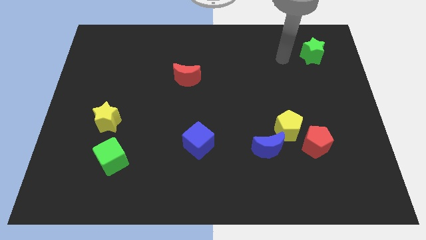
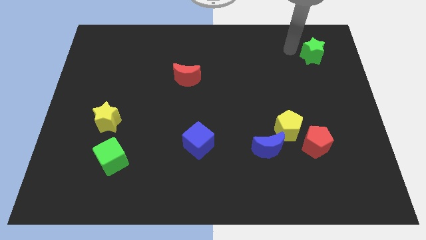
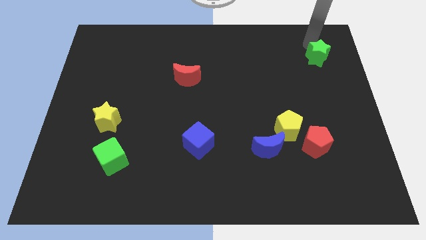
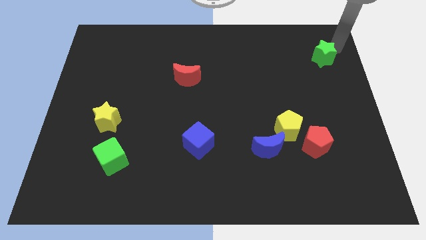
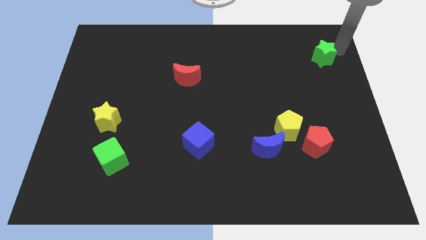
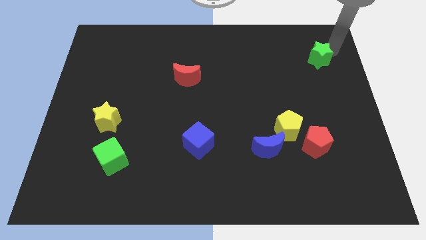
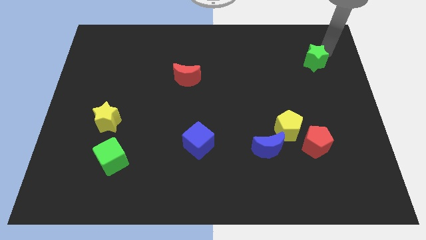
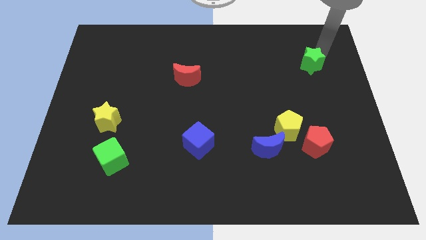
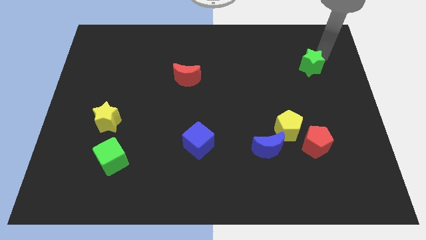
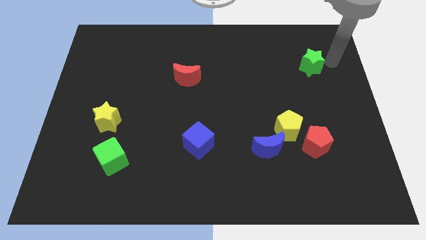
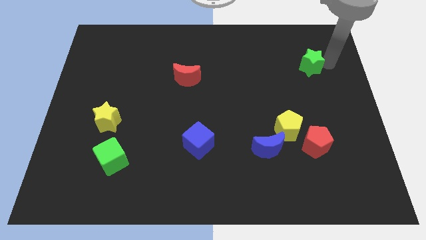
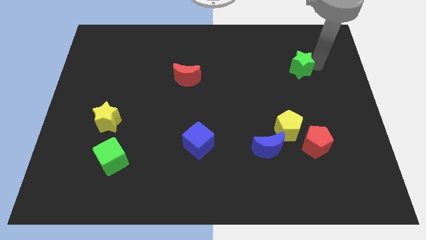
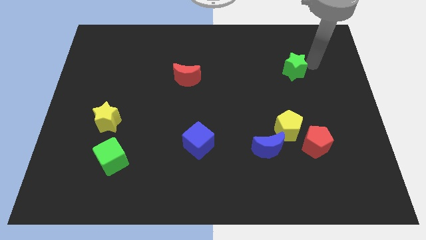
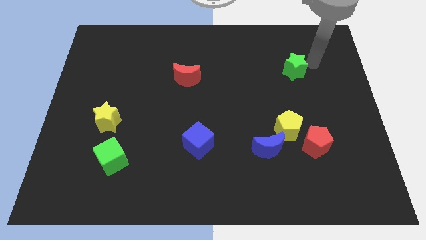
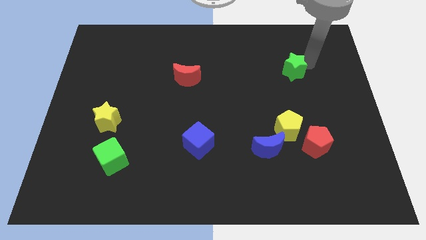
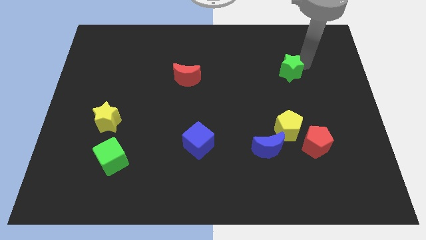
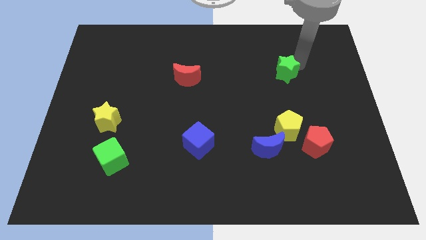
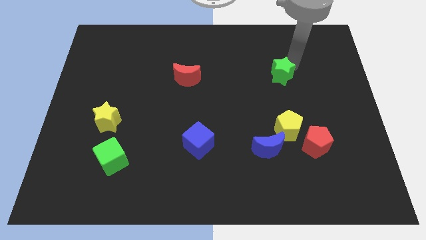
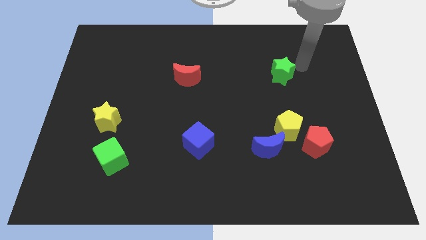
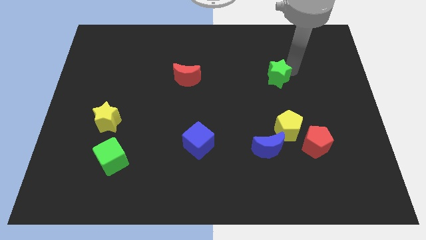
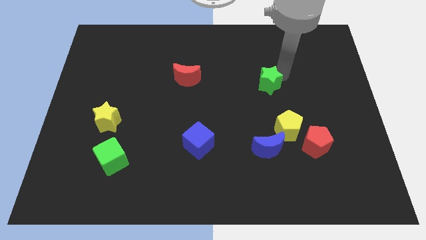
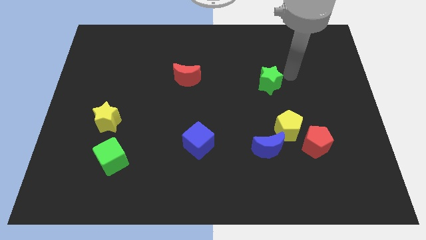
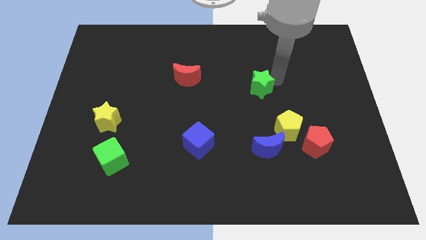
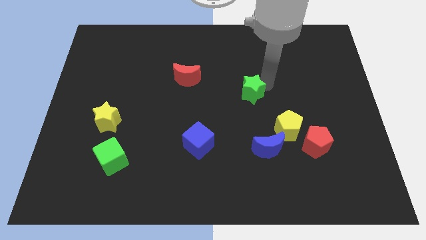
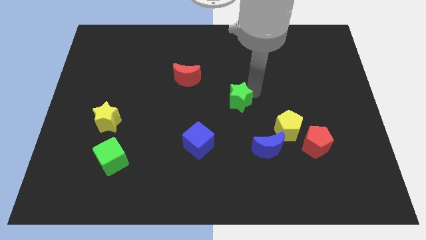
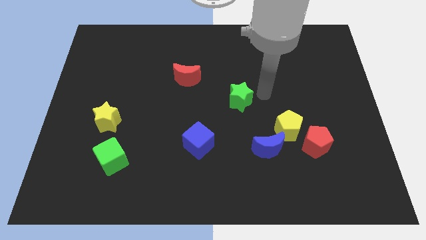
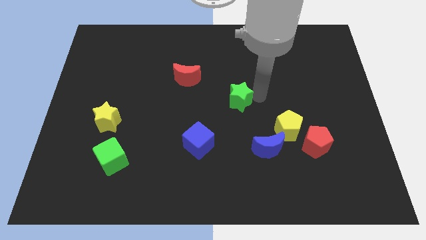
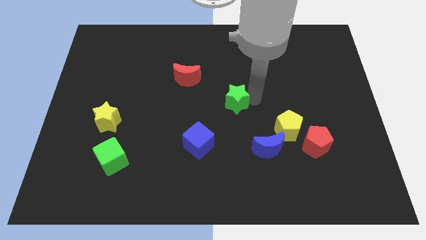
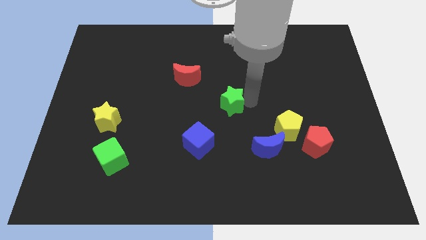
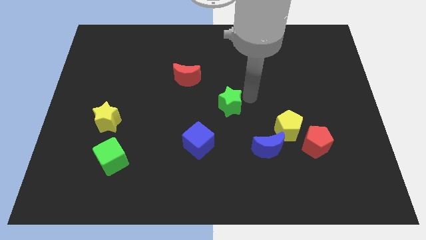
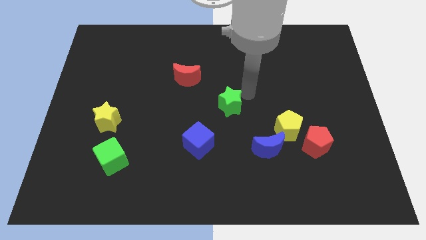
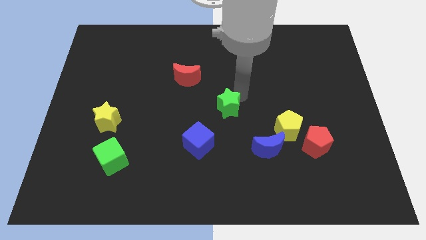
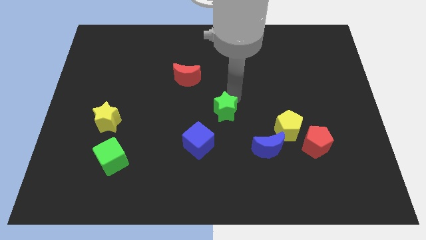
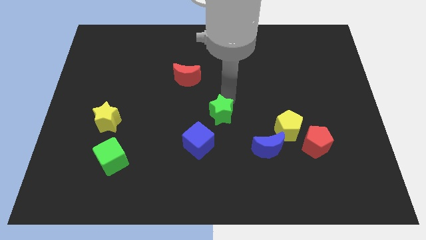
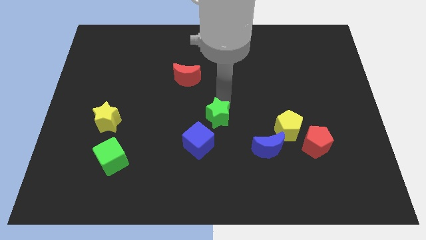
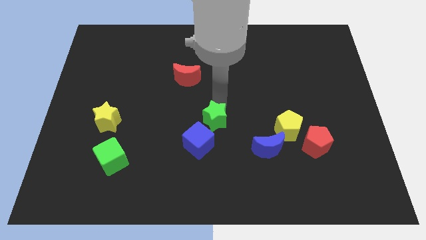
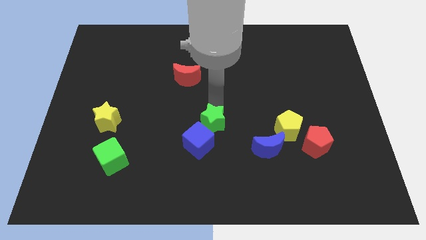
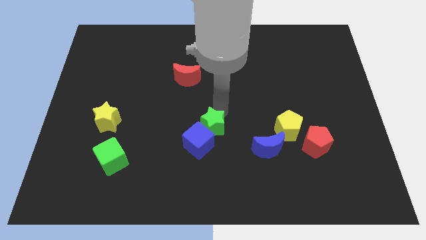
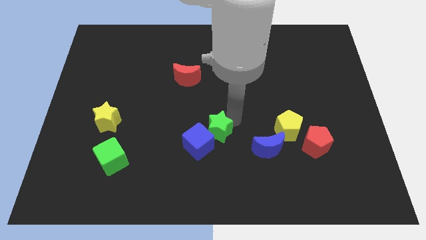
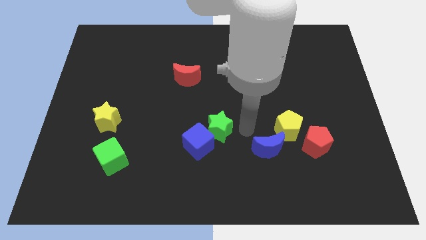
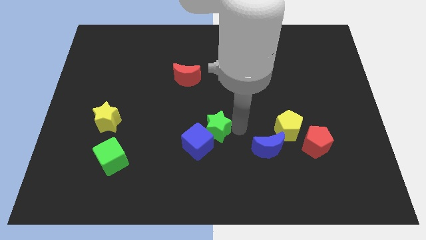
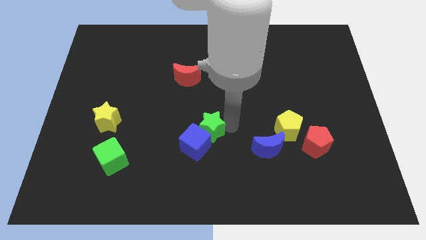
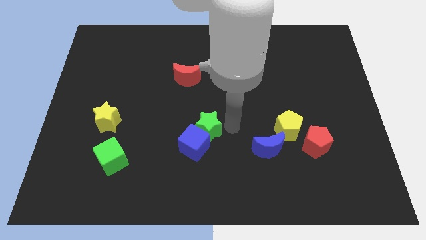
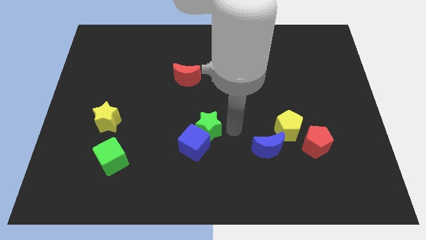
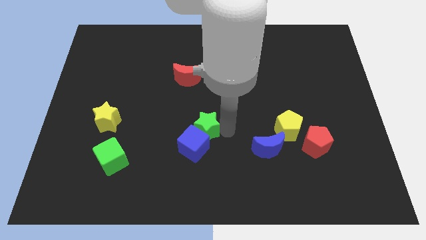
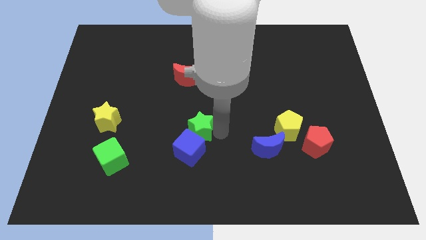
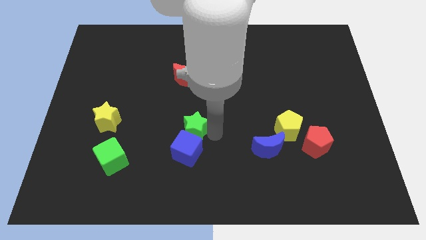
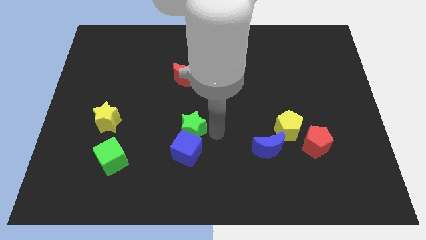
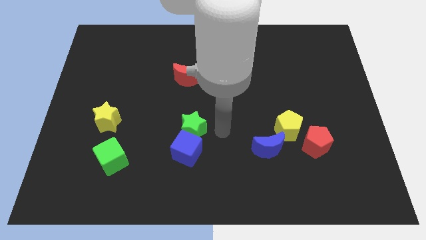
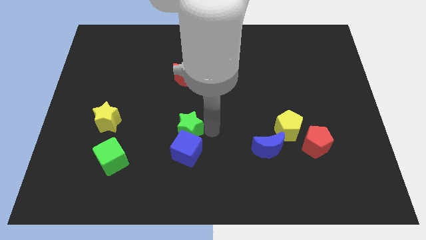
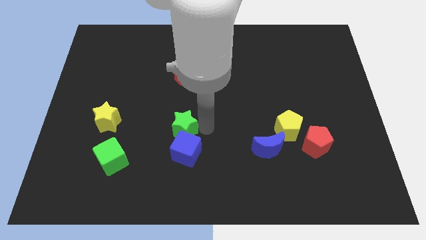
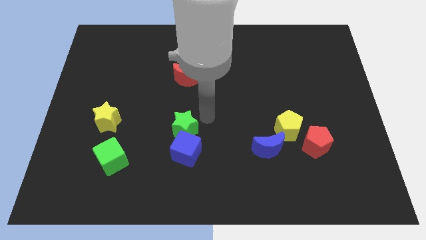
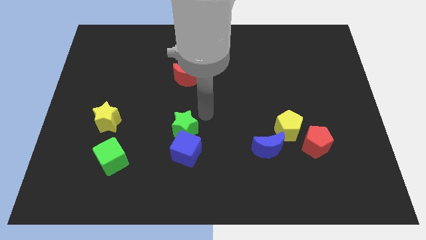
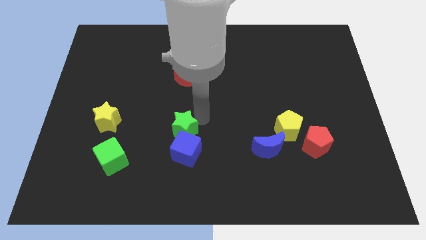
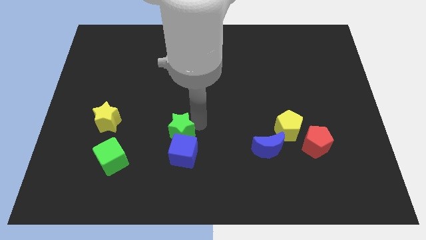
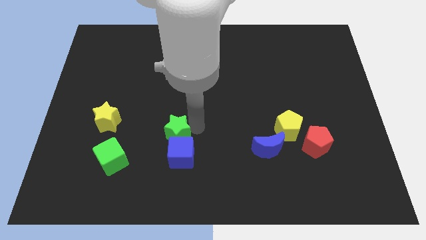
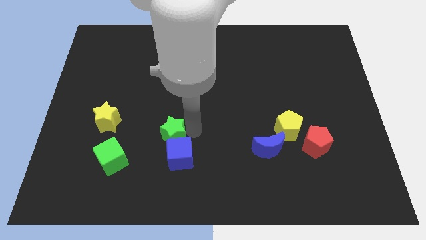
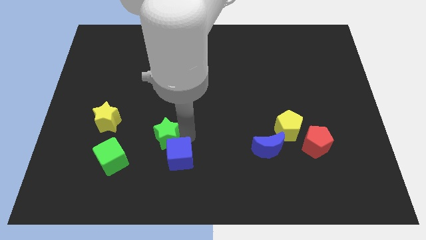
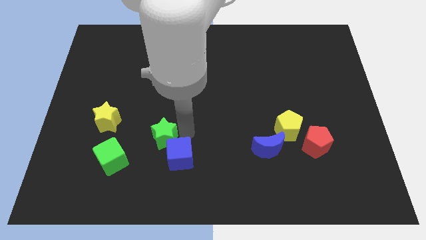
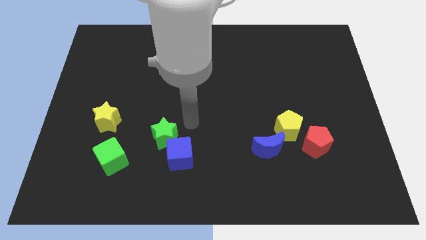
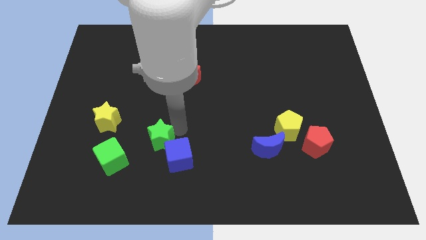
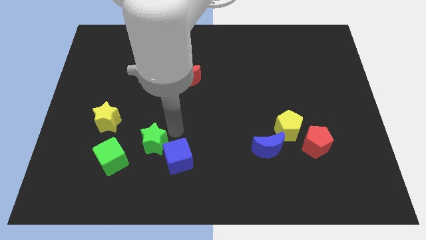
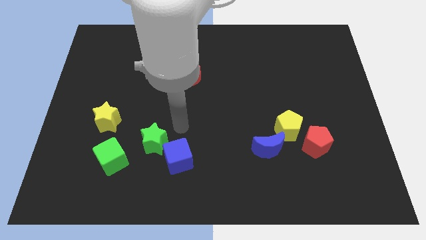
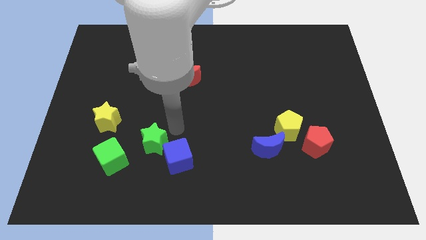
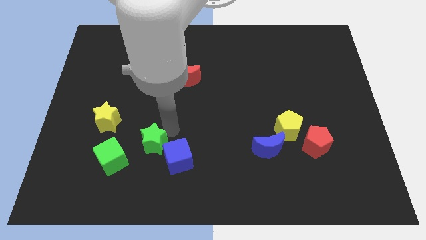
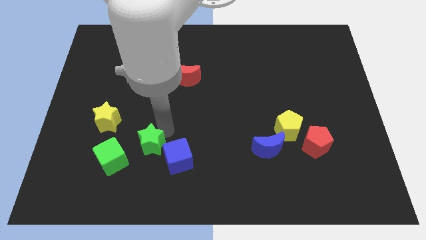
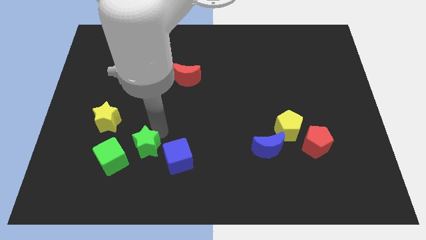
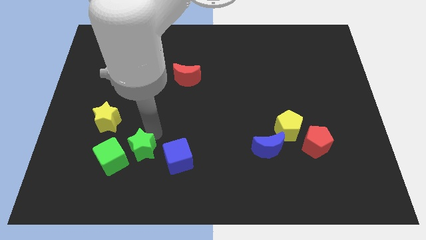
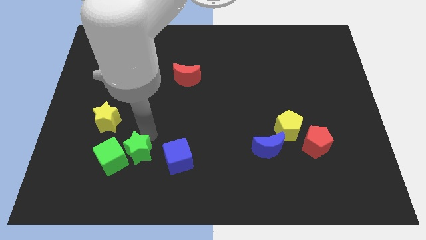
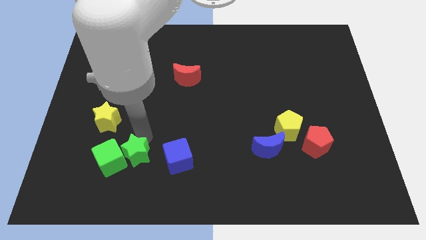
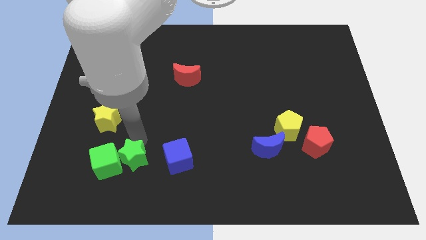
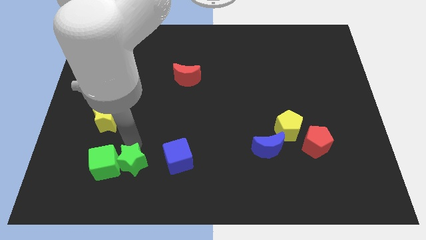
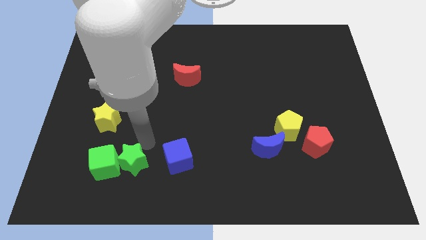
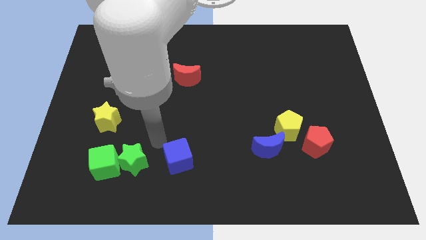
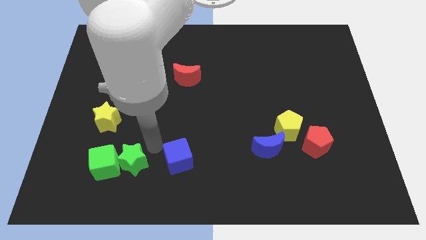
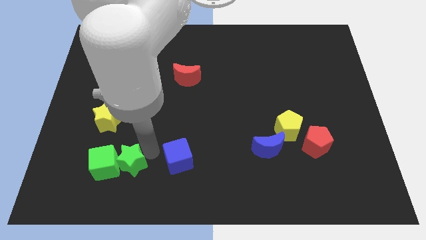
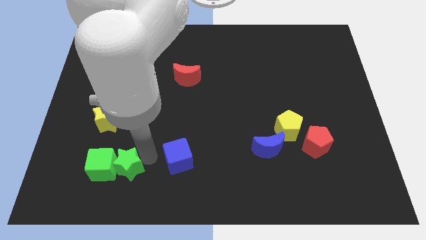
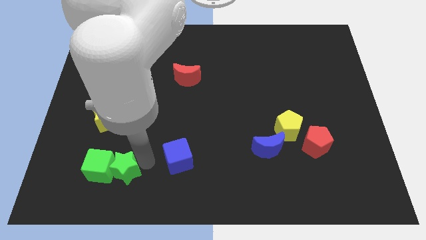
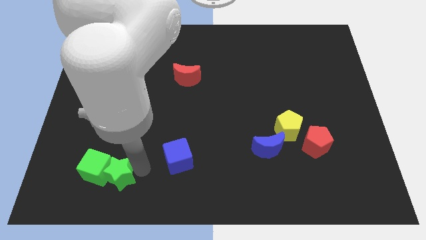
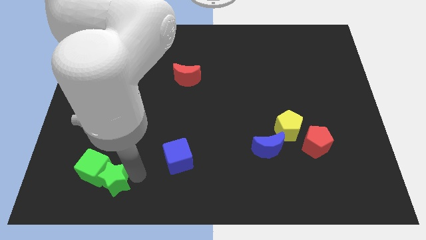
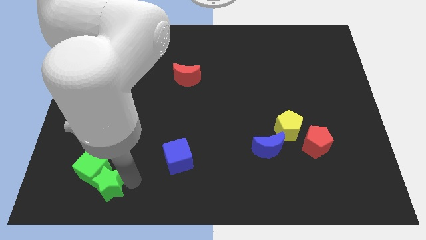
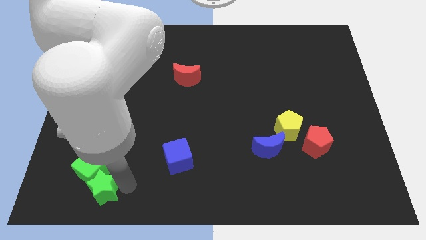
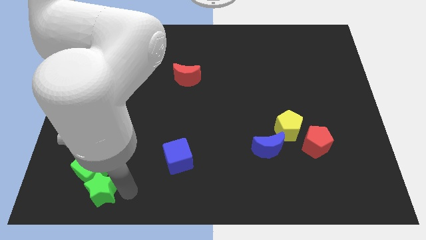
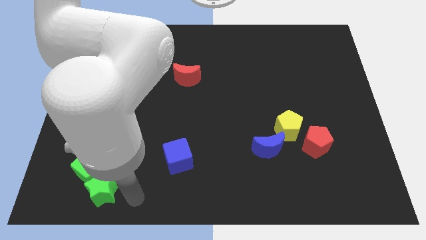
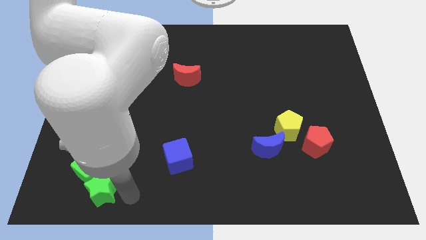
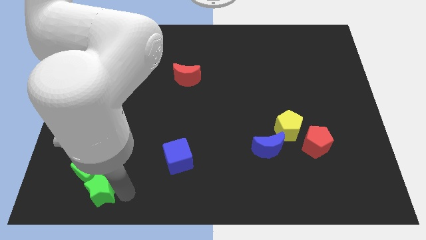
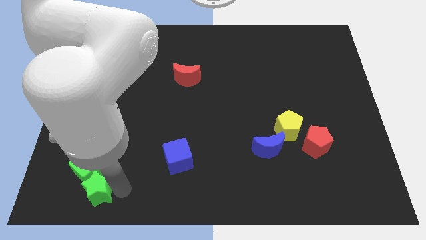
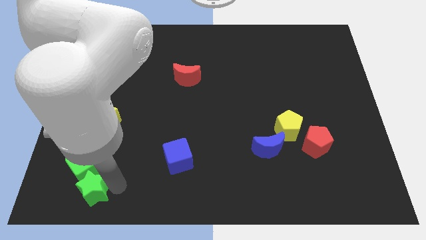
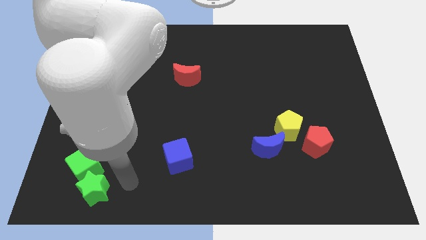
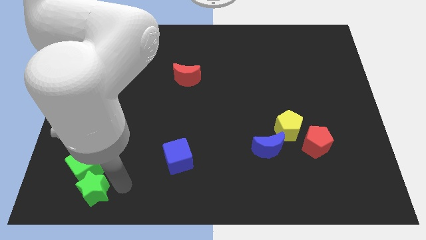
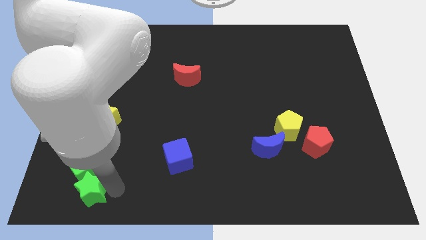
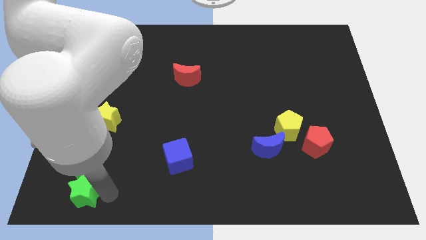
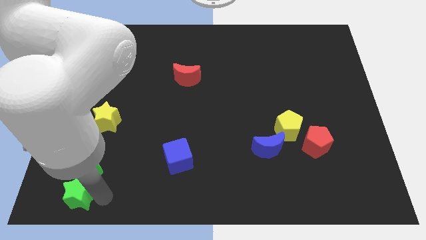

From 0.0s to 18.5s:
put the green star to the bottom left
